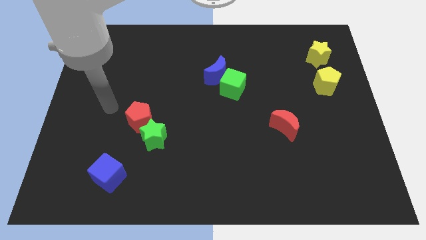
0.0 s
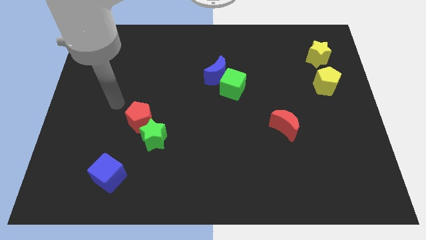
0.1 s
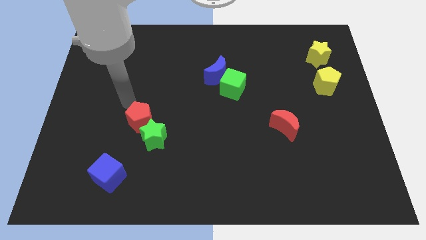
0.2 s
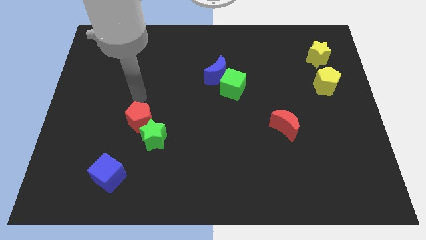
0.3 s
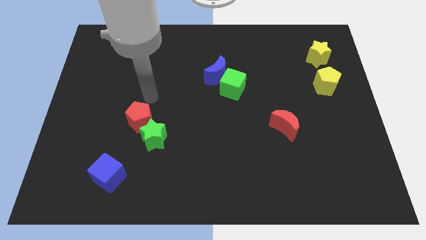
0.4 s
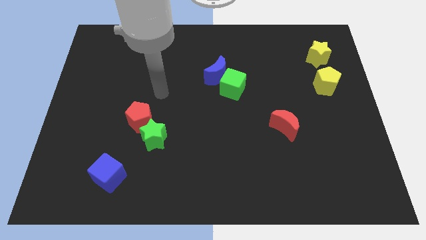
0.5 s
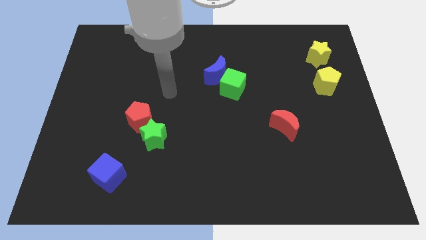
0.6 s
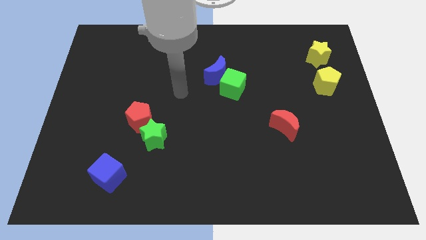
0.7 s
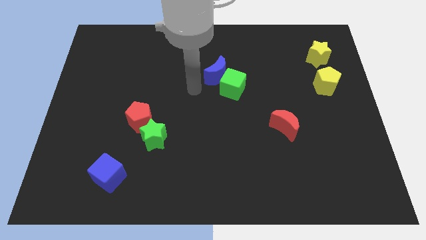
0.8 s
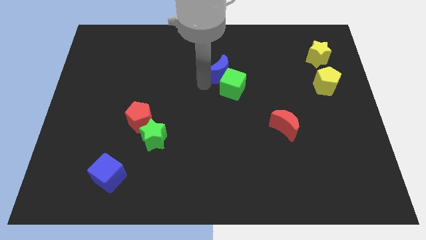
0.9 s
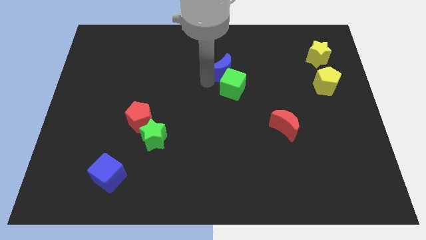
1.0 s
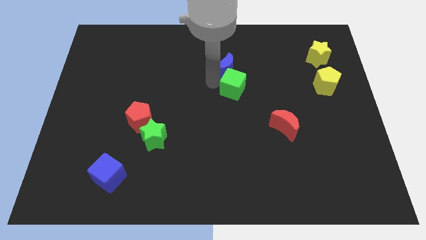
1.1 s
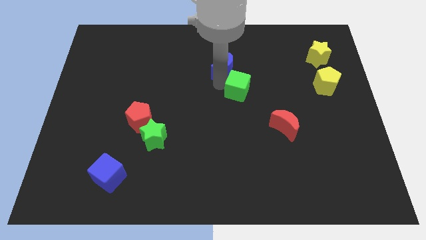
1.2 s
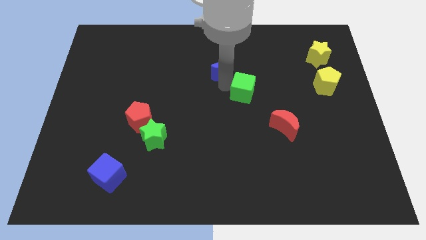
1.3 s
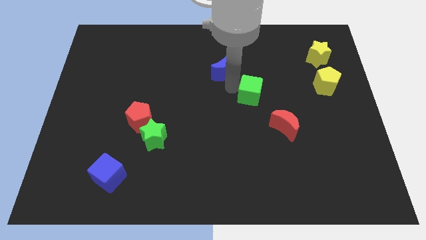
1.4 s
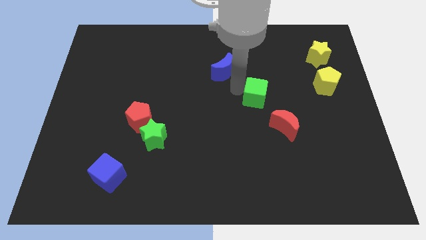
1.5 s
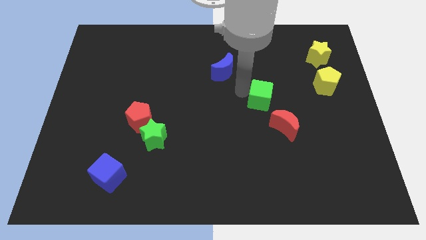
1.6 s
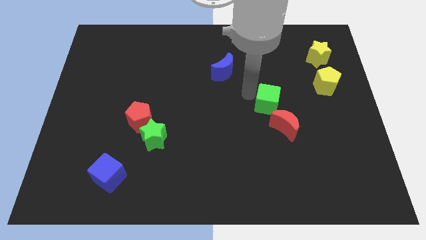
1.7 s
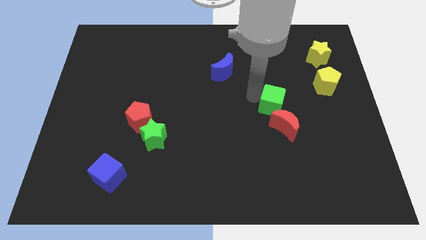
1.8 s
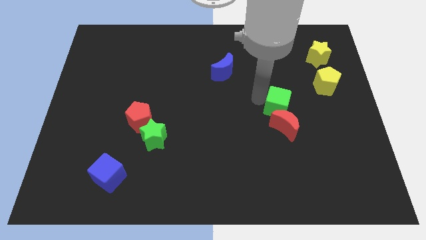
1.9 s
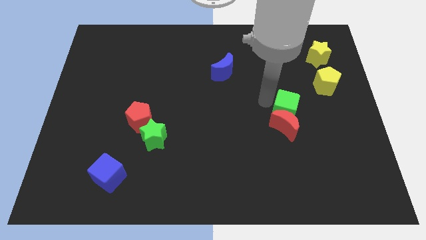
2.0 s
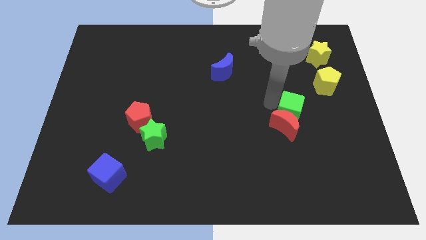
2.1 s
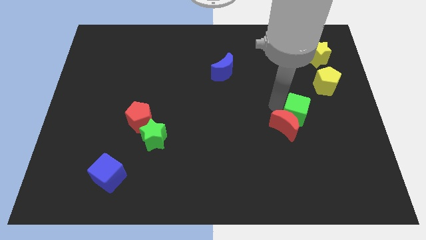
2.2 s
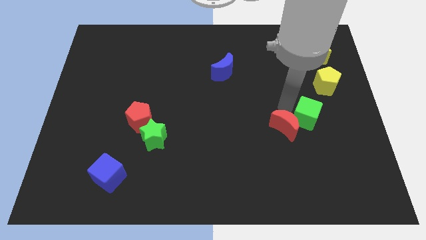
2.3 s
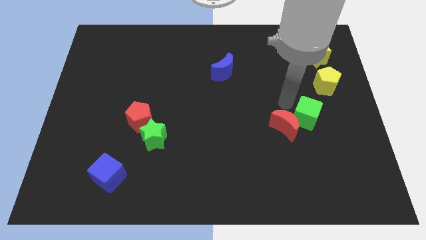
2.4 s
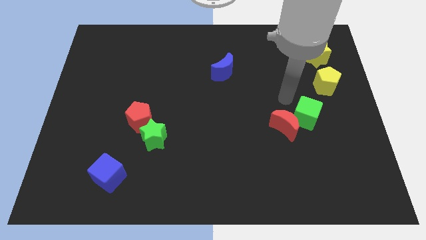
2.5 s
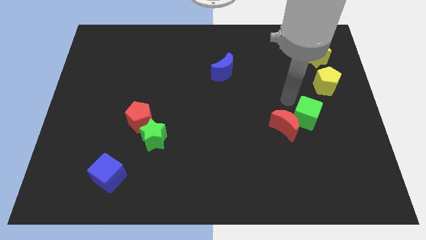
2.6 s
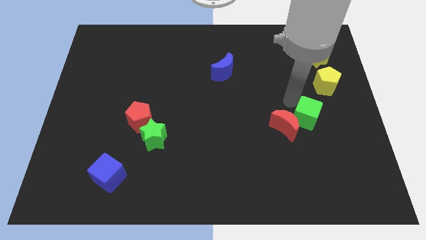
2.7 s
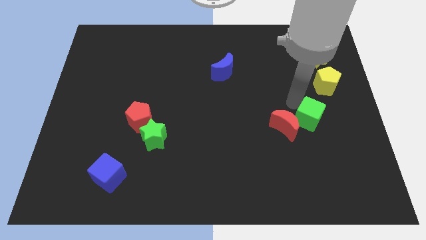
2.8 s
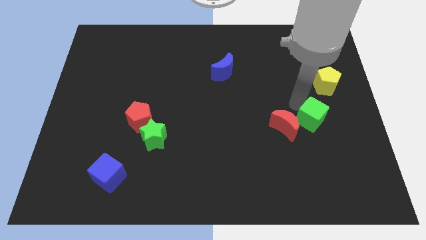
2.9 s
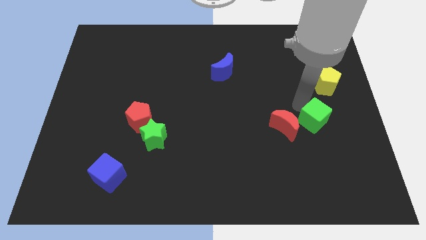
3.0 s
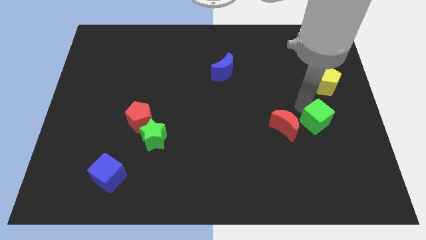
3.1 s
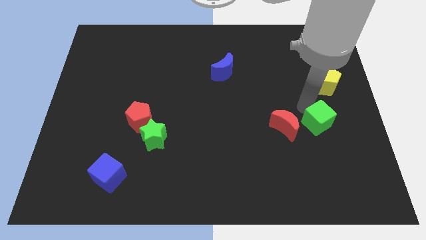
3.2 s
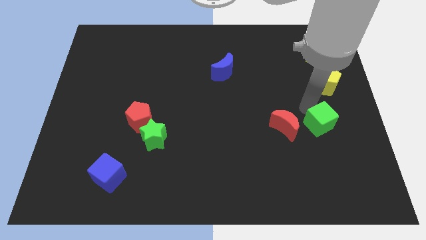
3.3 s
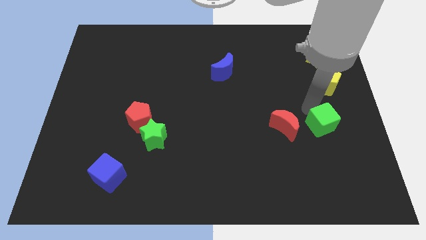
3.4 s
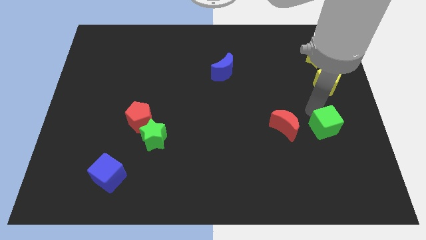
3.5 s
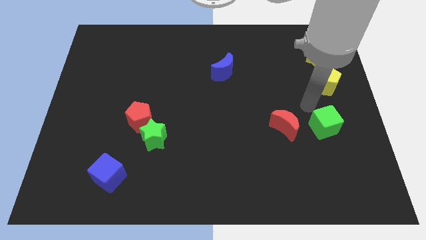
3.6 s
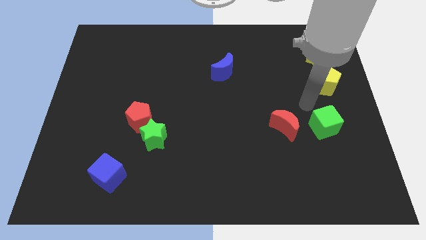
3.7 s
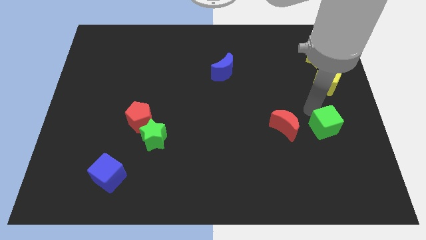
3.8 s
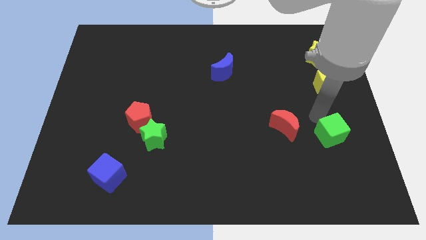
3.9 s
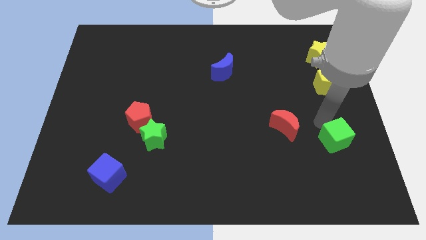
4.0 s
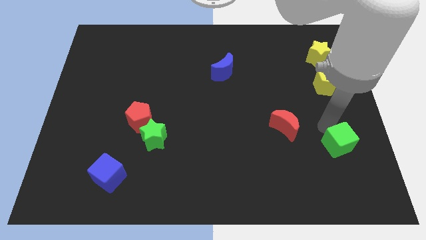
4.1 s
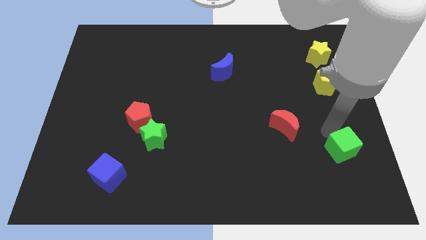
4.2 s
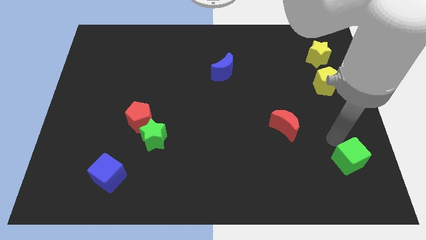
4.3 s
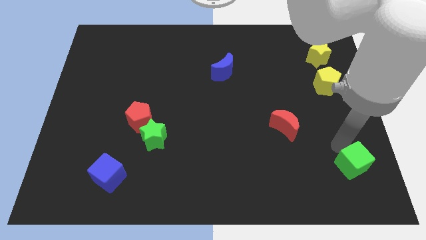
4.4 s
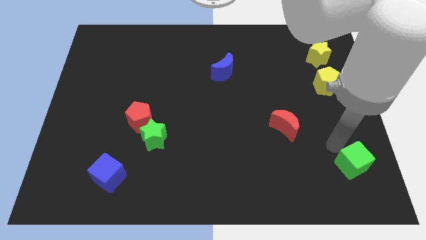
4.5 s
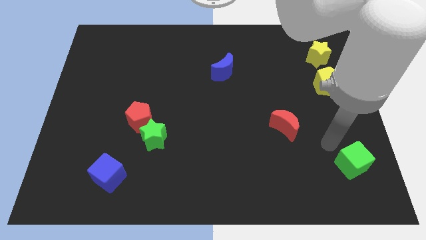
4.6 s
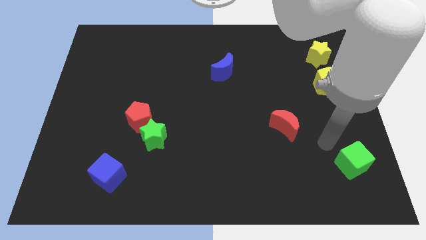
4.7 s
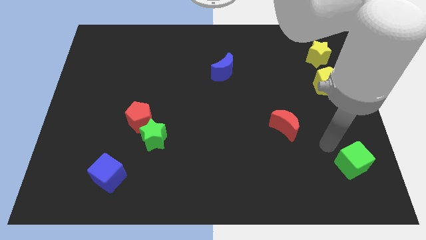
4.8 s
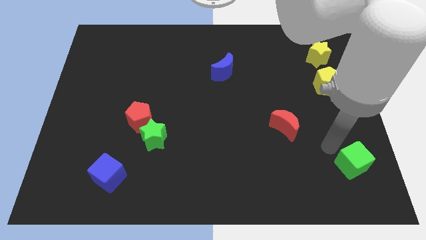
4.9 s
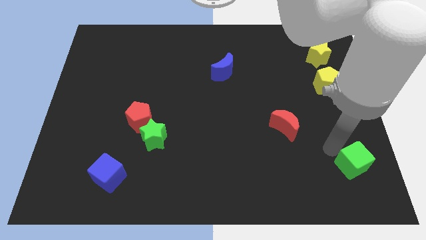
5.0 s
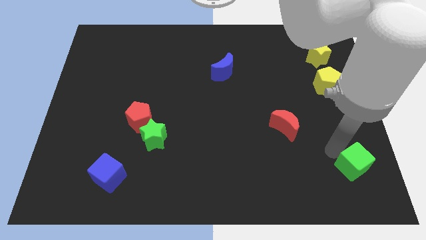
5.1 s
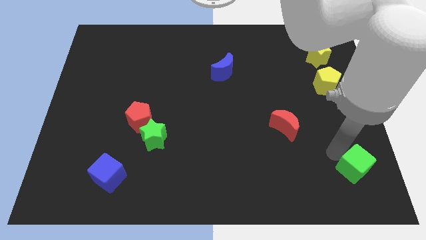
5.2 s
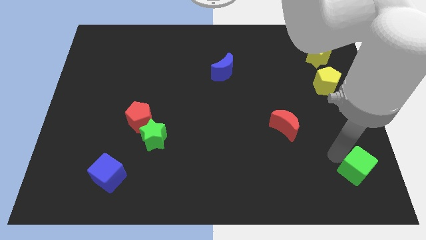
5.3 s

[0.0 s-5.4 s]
put the green cube to the bottom right

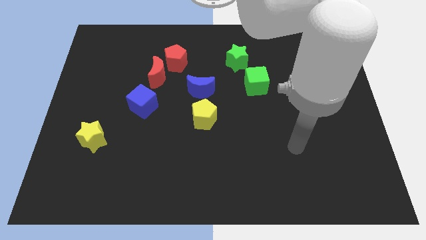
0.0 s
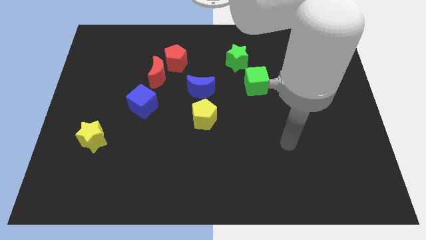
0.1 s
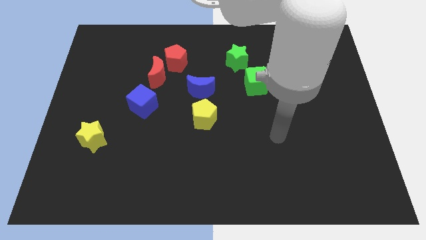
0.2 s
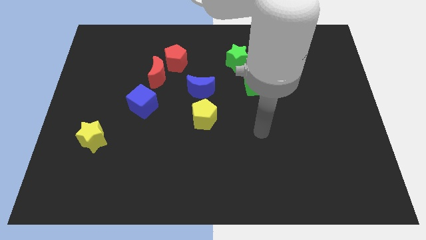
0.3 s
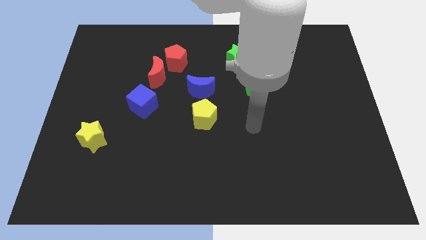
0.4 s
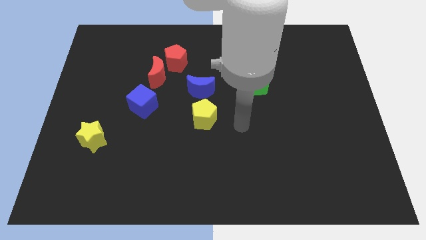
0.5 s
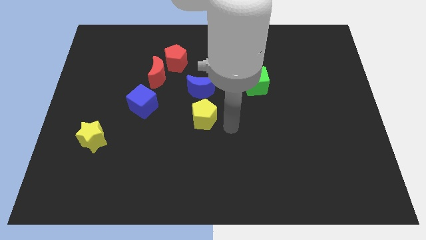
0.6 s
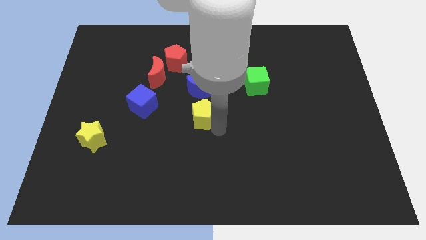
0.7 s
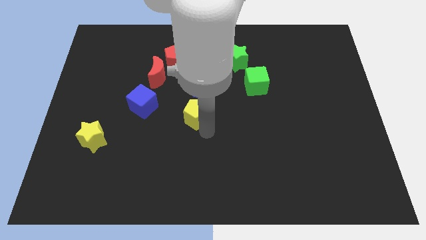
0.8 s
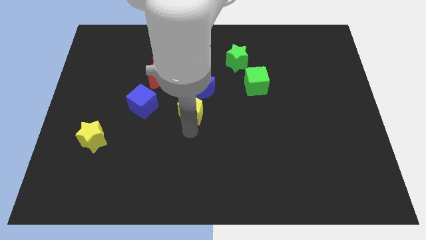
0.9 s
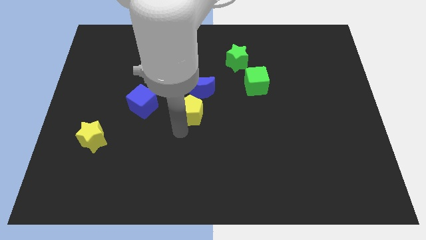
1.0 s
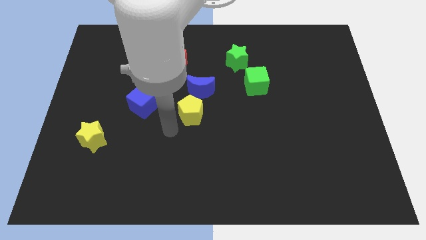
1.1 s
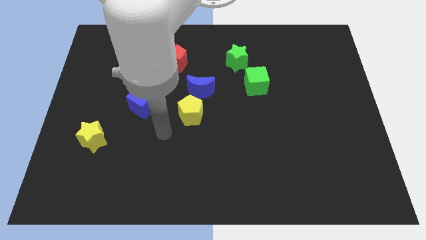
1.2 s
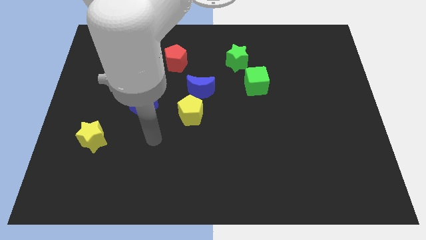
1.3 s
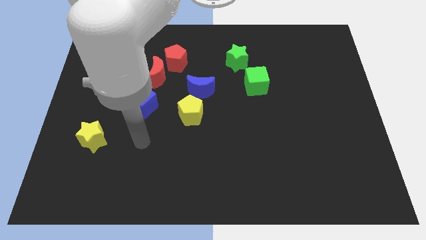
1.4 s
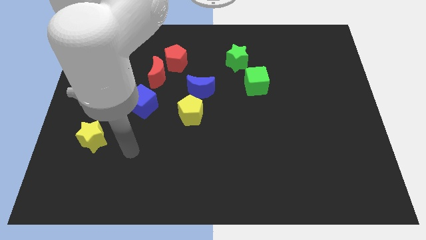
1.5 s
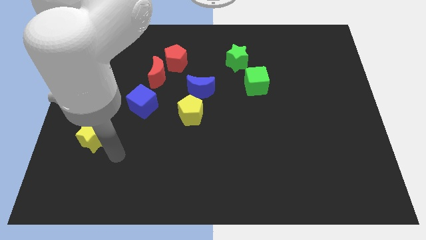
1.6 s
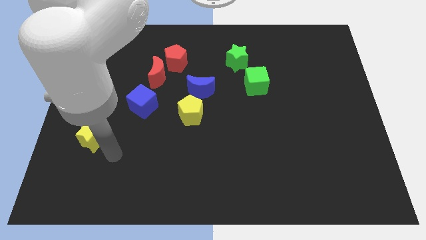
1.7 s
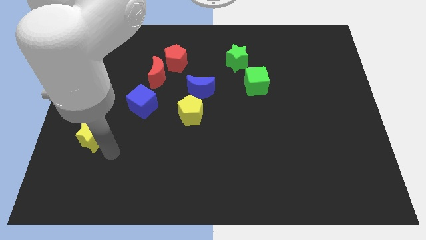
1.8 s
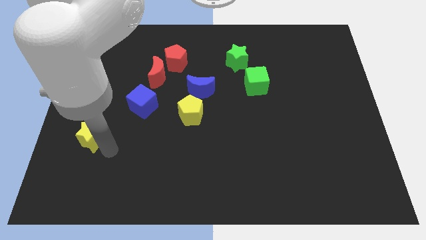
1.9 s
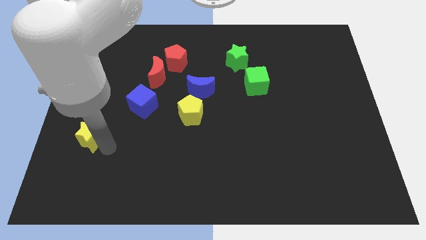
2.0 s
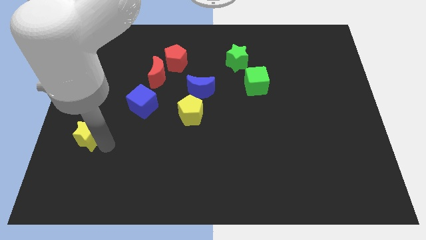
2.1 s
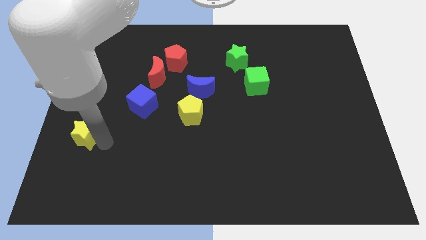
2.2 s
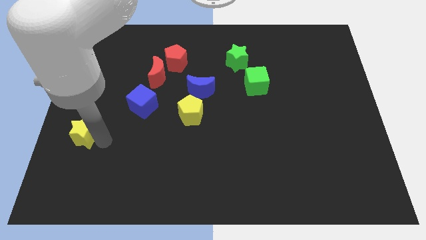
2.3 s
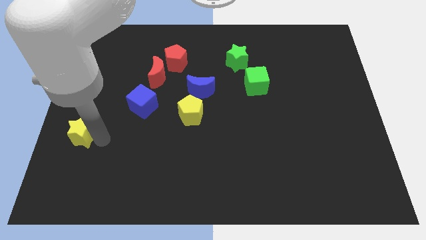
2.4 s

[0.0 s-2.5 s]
push the yellow star to the left side
